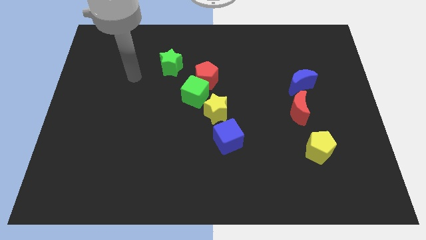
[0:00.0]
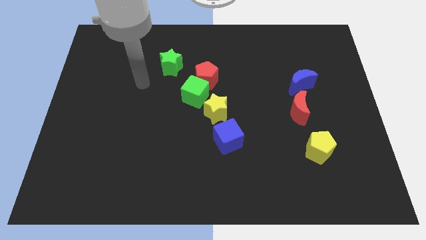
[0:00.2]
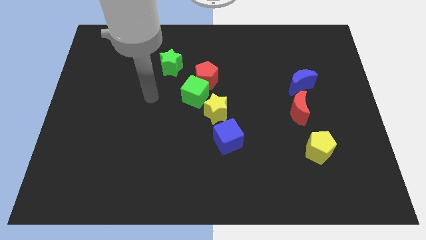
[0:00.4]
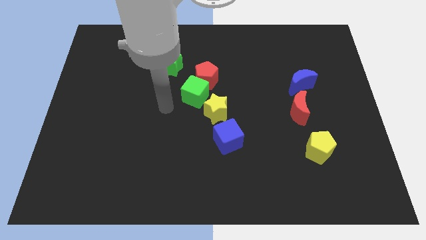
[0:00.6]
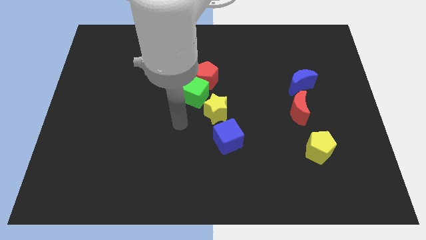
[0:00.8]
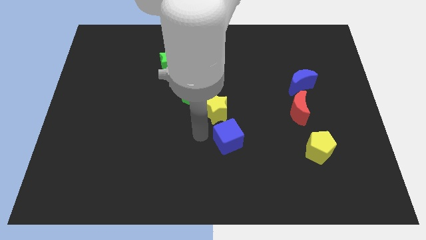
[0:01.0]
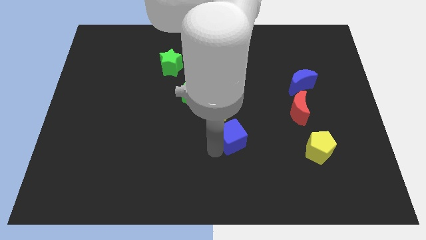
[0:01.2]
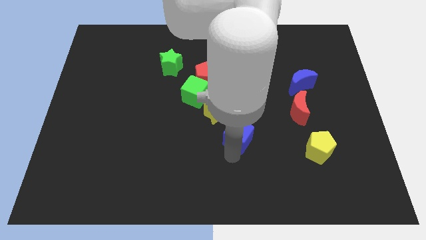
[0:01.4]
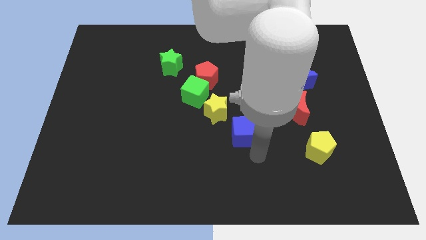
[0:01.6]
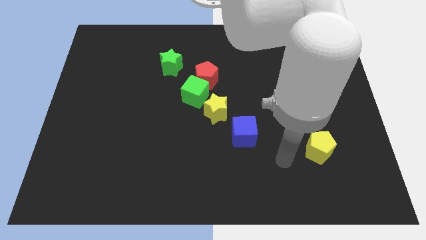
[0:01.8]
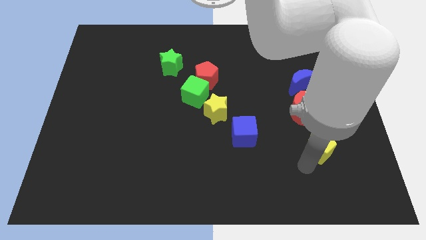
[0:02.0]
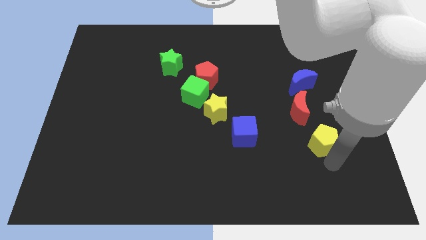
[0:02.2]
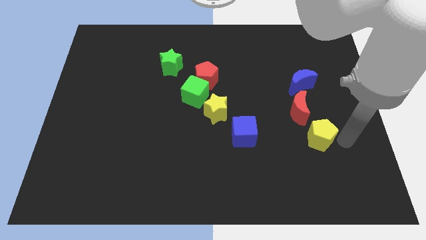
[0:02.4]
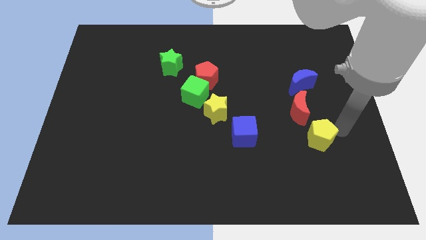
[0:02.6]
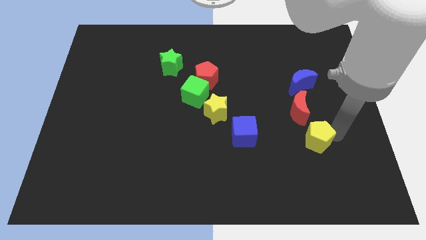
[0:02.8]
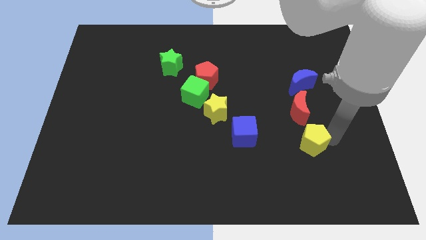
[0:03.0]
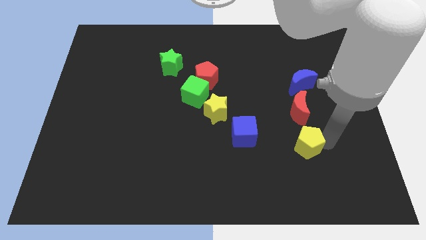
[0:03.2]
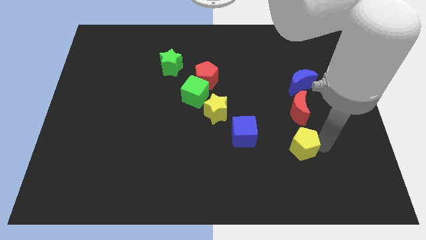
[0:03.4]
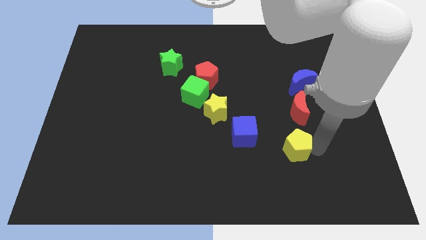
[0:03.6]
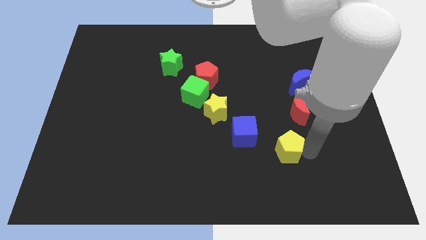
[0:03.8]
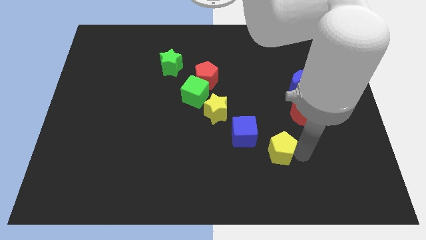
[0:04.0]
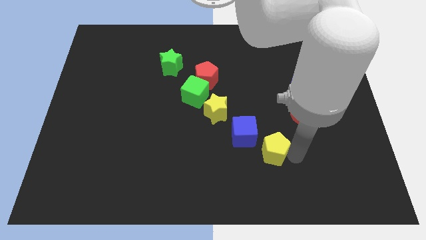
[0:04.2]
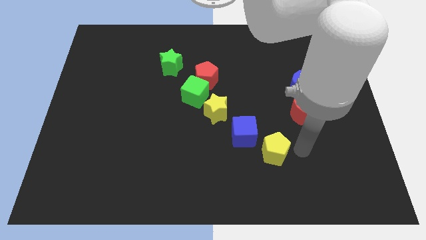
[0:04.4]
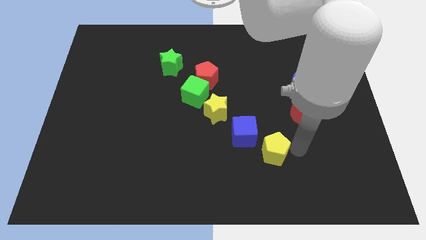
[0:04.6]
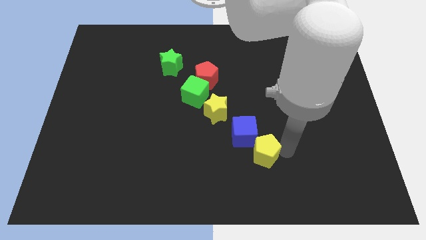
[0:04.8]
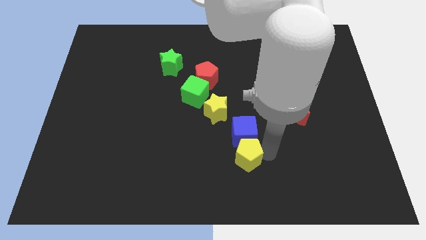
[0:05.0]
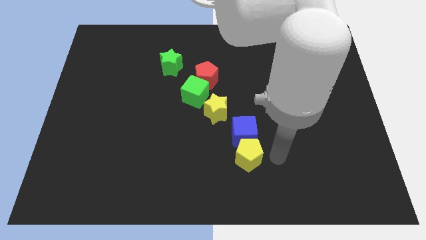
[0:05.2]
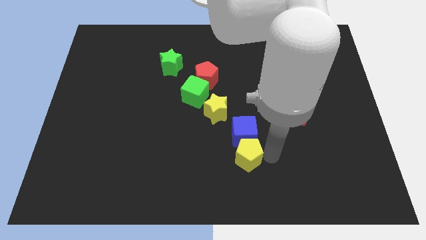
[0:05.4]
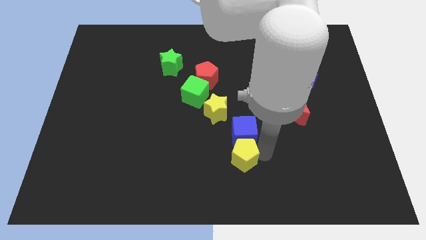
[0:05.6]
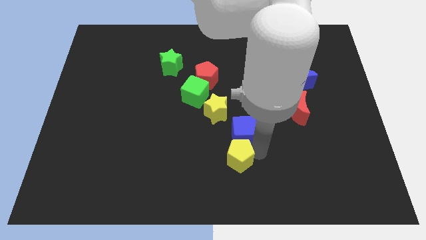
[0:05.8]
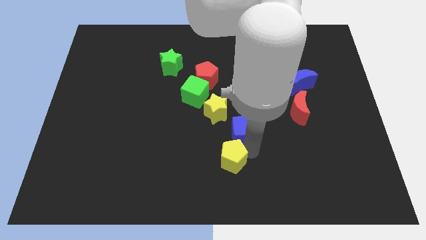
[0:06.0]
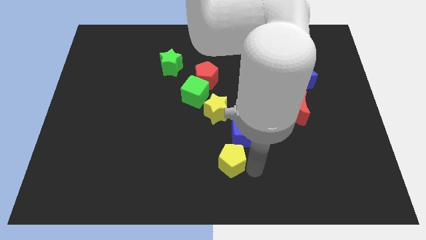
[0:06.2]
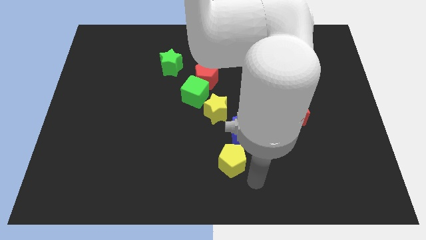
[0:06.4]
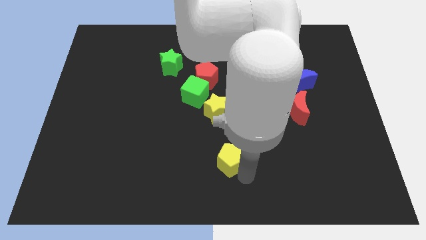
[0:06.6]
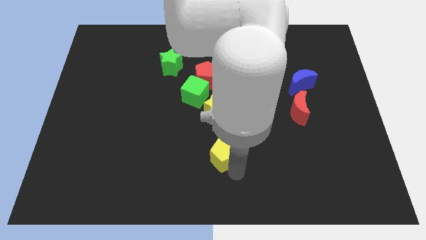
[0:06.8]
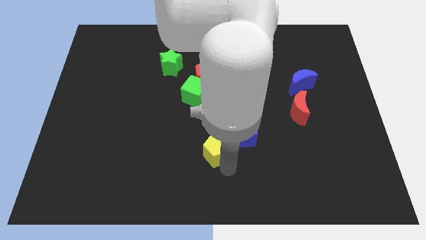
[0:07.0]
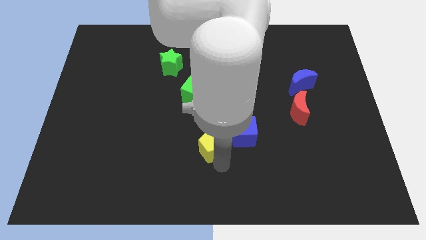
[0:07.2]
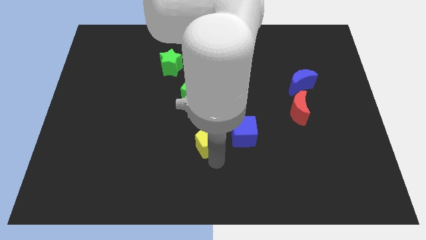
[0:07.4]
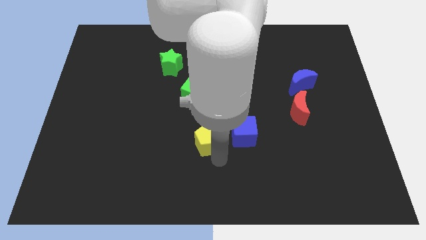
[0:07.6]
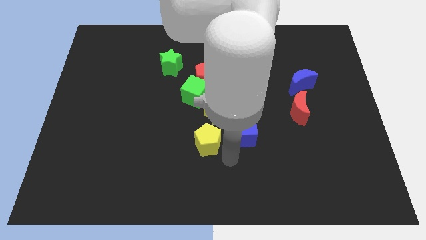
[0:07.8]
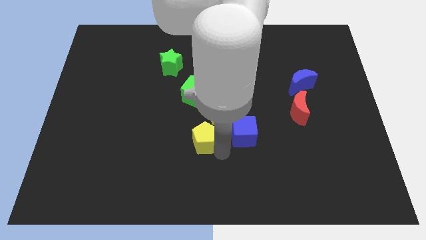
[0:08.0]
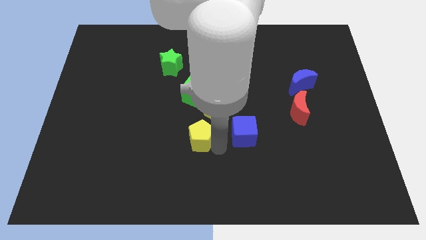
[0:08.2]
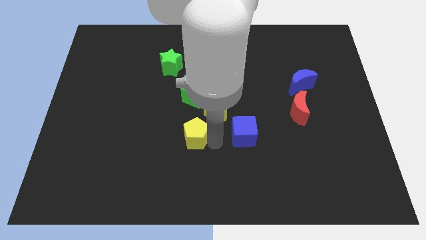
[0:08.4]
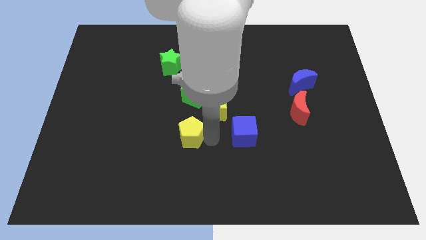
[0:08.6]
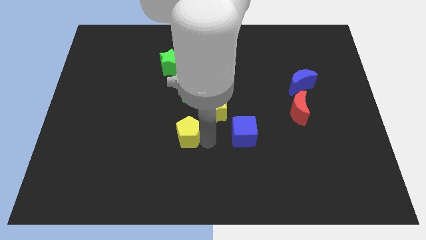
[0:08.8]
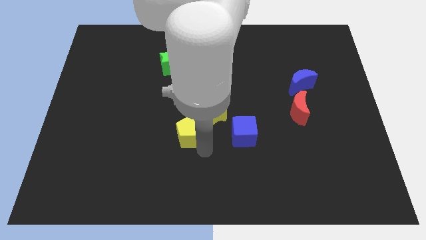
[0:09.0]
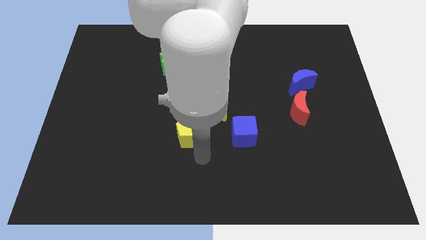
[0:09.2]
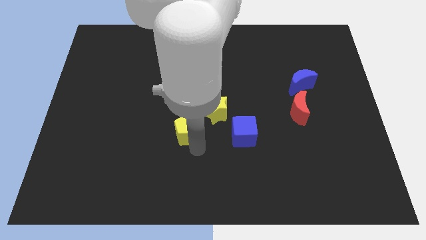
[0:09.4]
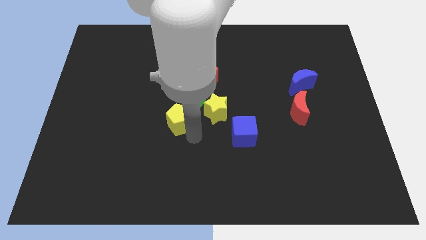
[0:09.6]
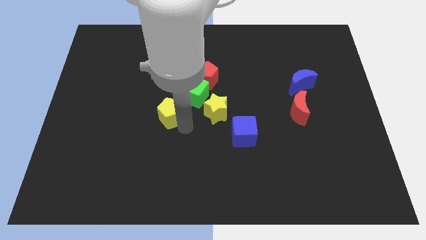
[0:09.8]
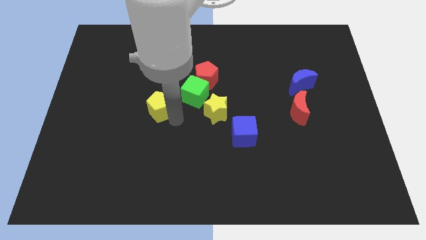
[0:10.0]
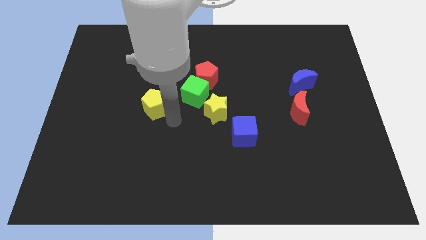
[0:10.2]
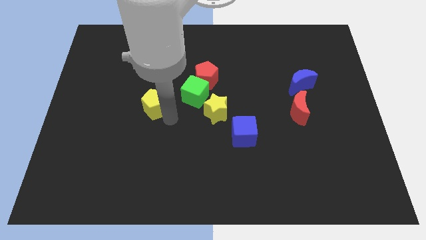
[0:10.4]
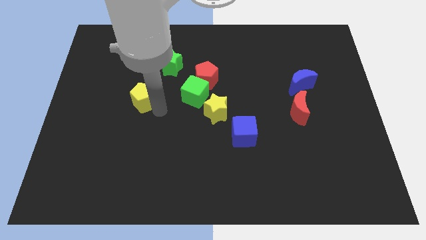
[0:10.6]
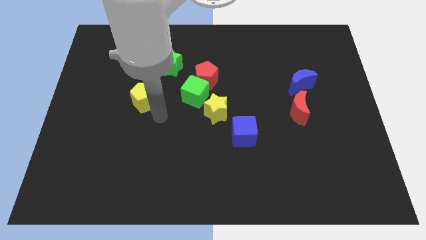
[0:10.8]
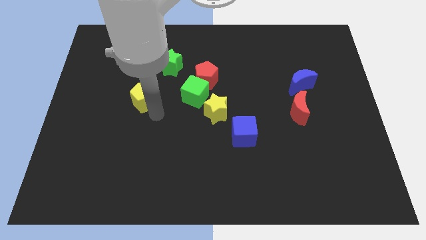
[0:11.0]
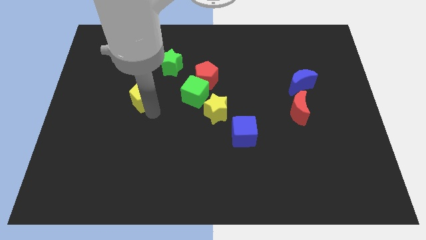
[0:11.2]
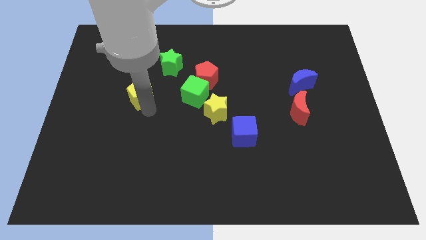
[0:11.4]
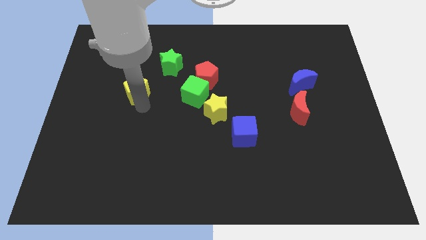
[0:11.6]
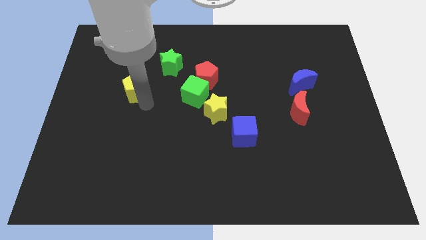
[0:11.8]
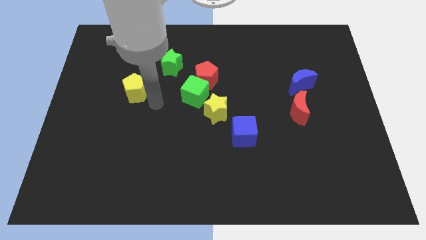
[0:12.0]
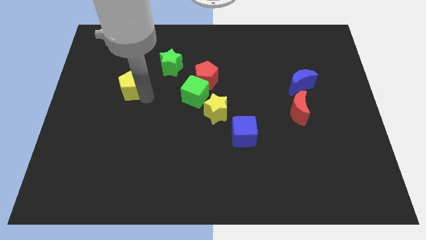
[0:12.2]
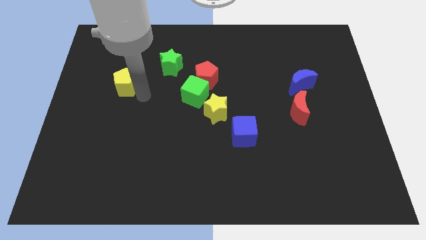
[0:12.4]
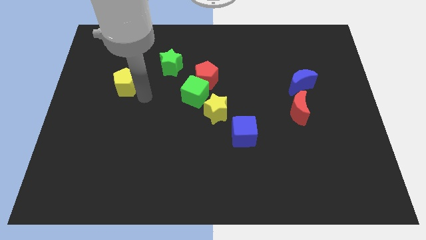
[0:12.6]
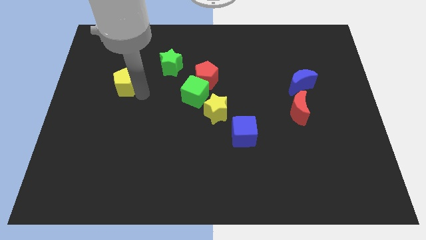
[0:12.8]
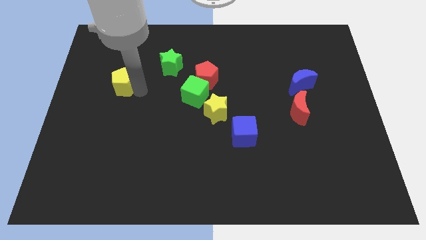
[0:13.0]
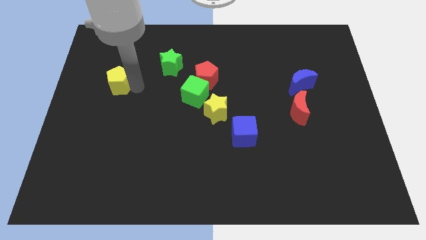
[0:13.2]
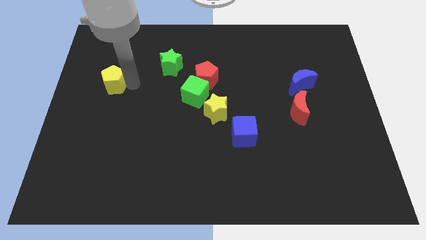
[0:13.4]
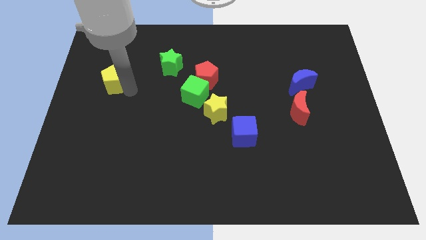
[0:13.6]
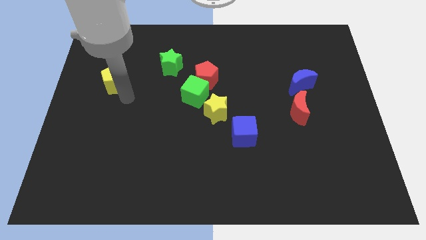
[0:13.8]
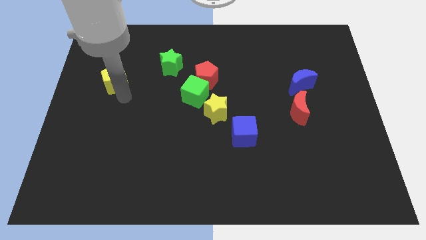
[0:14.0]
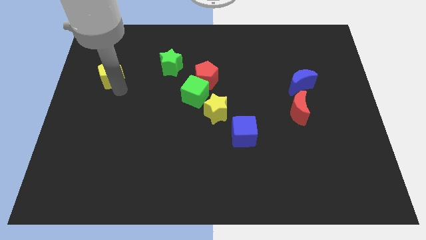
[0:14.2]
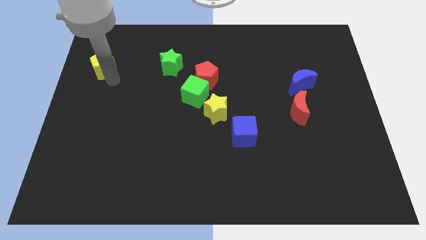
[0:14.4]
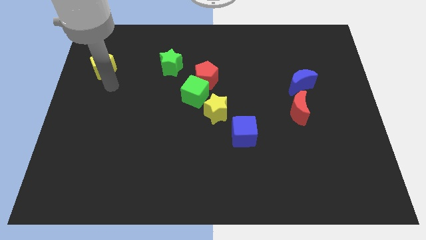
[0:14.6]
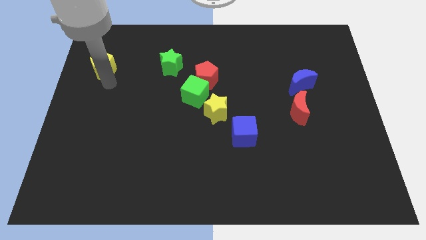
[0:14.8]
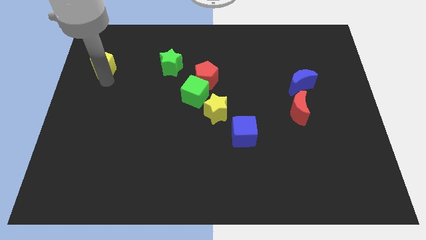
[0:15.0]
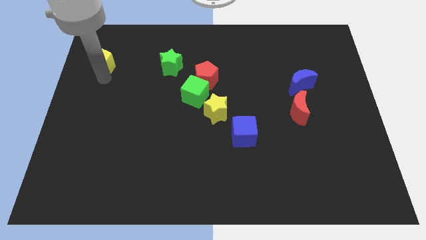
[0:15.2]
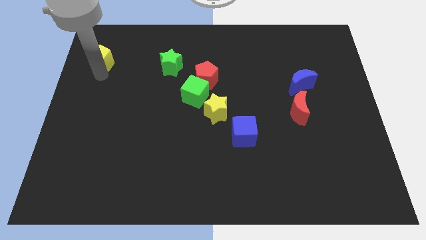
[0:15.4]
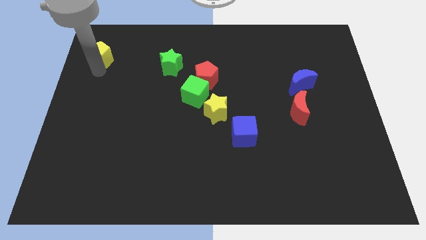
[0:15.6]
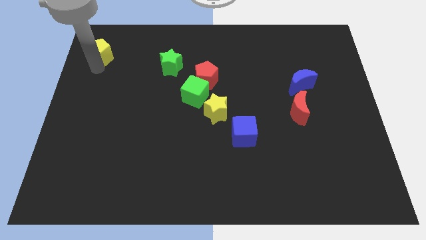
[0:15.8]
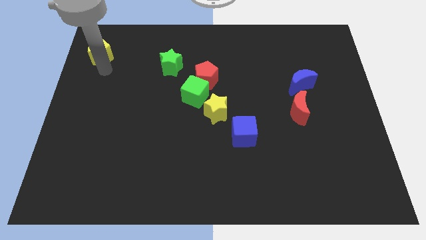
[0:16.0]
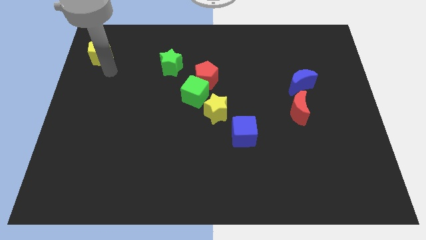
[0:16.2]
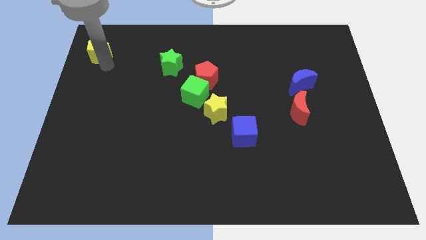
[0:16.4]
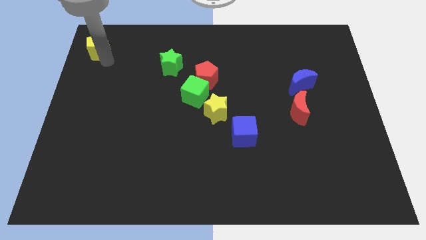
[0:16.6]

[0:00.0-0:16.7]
slide the yellow pentagon to the top left
